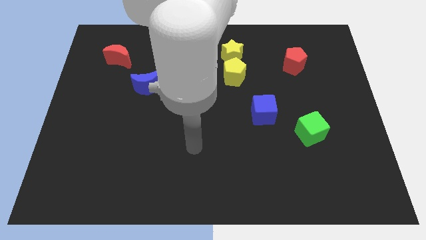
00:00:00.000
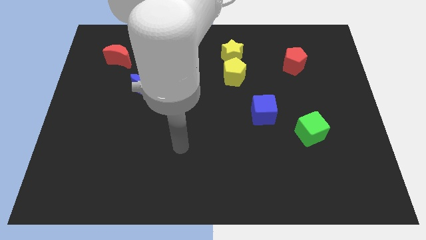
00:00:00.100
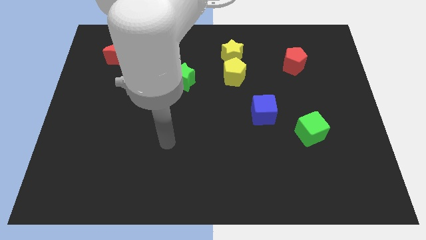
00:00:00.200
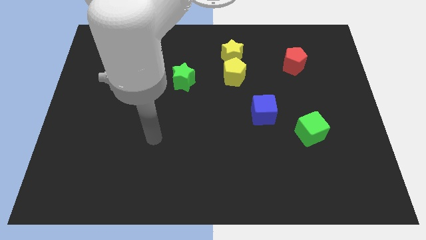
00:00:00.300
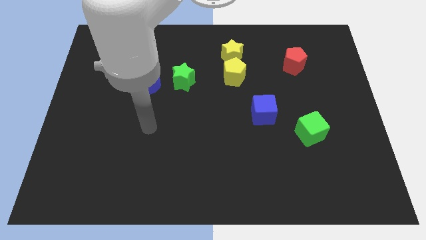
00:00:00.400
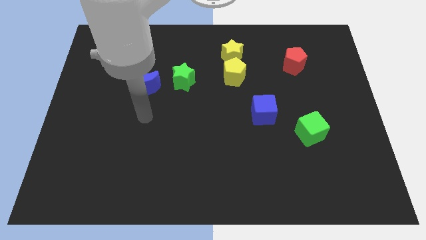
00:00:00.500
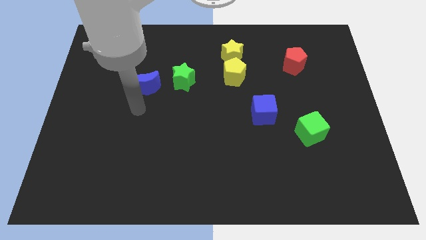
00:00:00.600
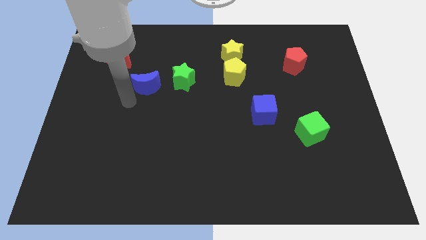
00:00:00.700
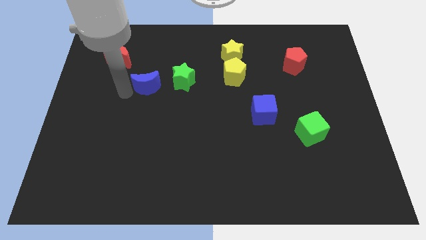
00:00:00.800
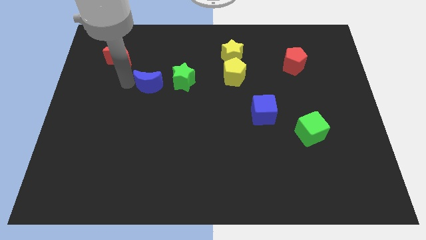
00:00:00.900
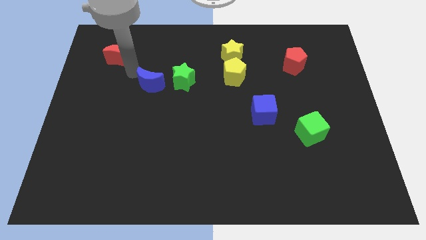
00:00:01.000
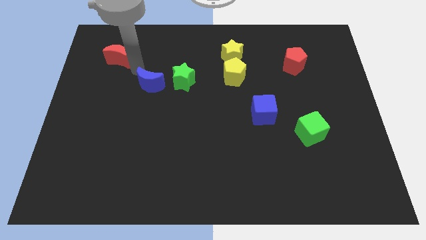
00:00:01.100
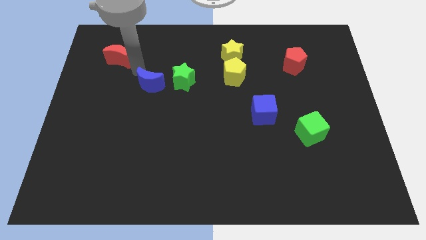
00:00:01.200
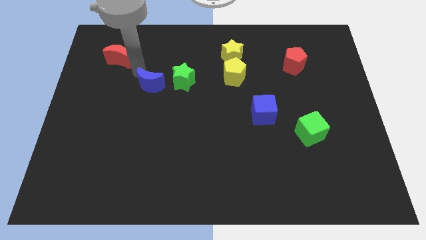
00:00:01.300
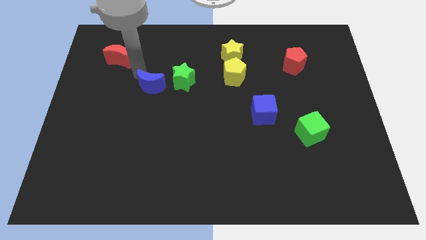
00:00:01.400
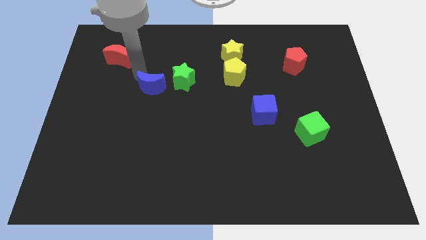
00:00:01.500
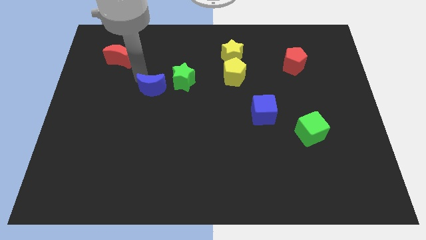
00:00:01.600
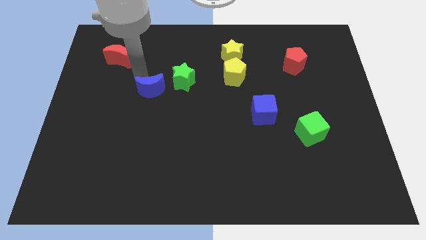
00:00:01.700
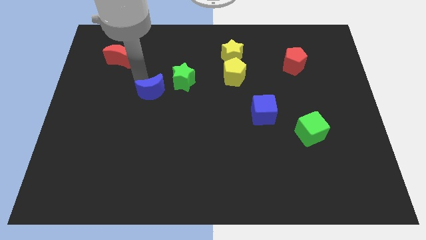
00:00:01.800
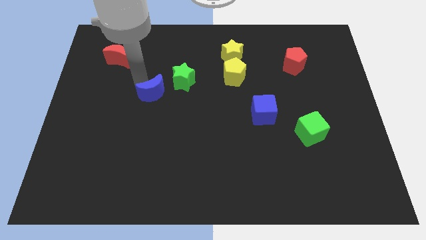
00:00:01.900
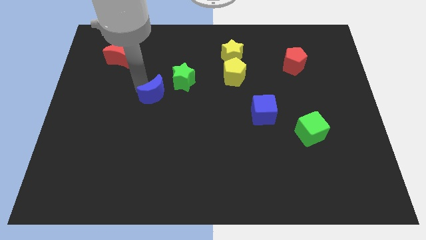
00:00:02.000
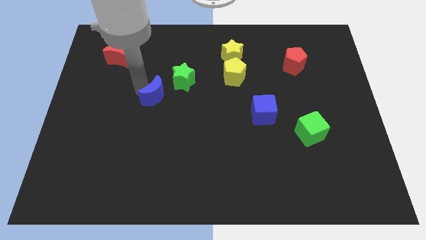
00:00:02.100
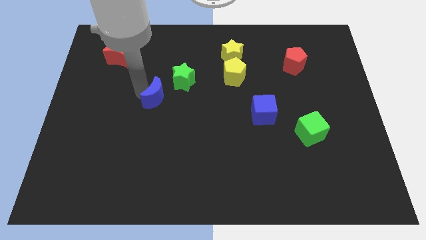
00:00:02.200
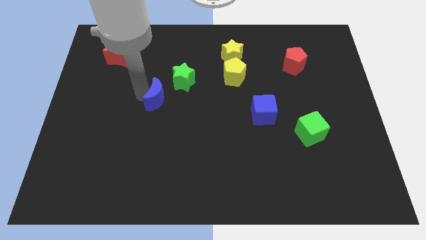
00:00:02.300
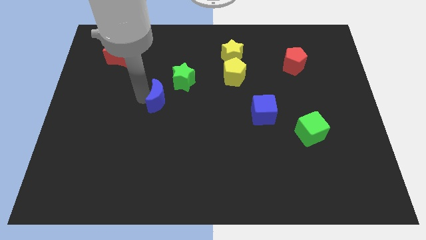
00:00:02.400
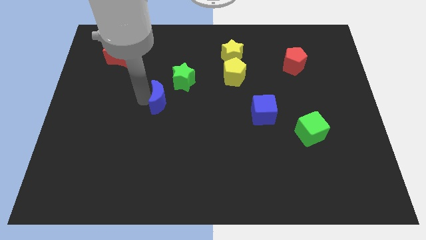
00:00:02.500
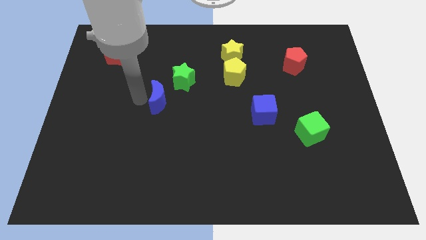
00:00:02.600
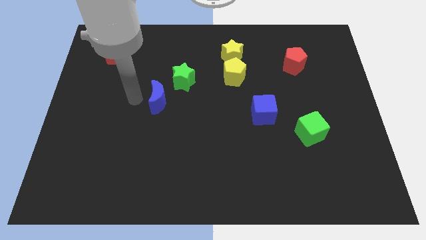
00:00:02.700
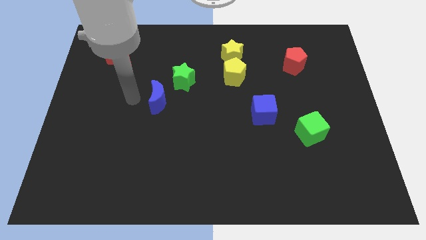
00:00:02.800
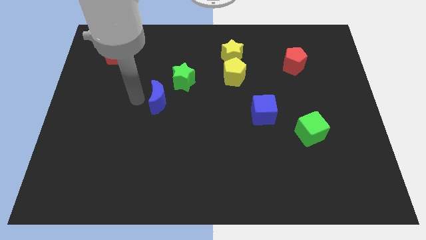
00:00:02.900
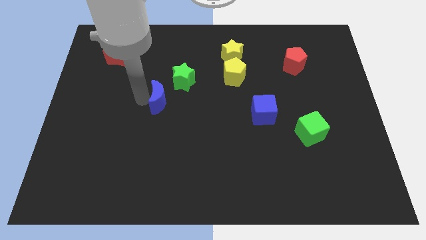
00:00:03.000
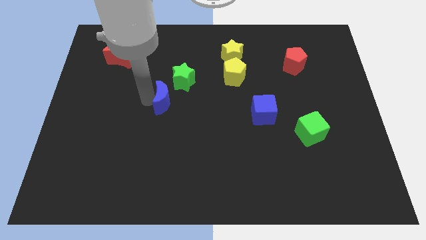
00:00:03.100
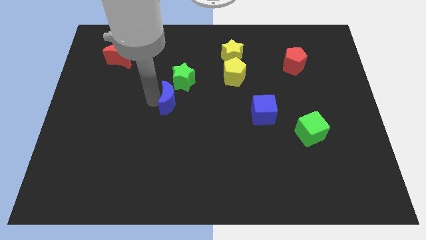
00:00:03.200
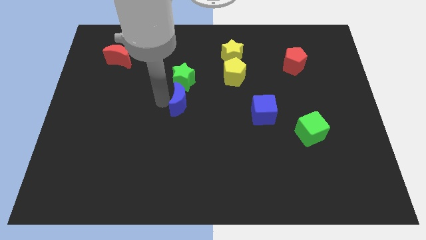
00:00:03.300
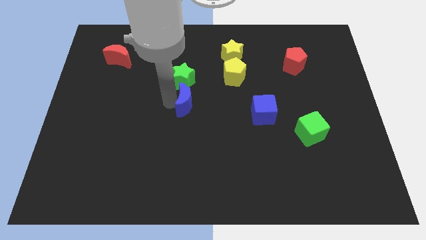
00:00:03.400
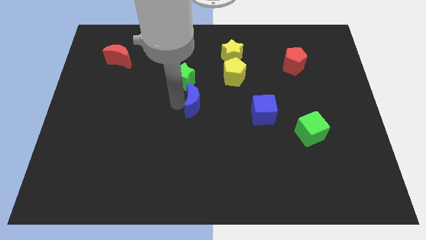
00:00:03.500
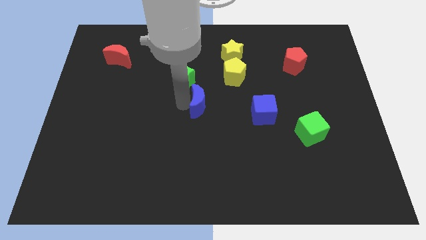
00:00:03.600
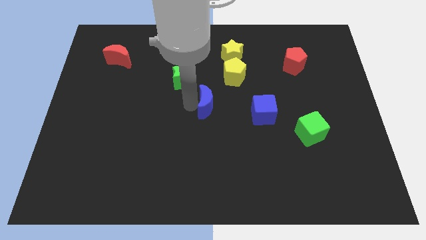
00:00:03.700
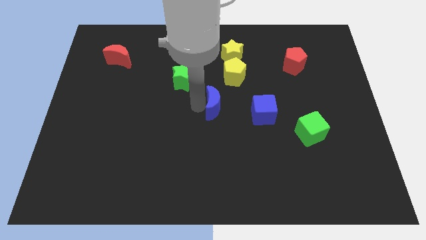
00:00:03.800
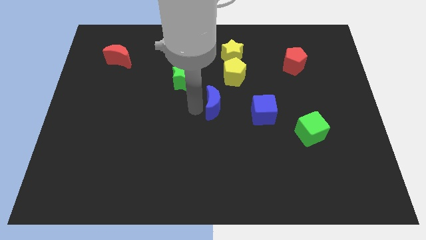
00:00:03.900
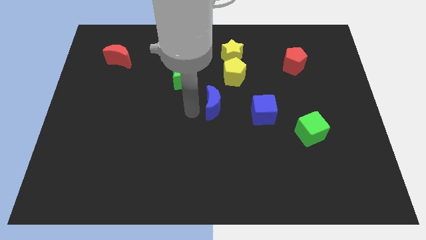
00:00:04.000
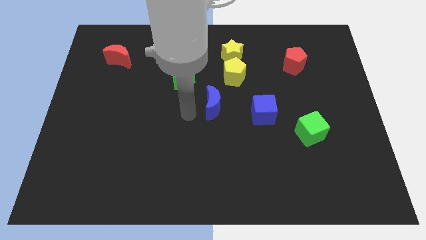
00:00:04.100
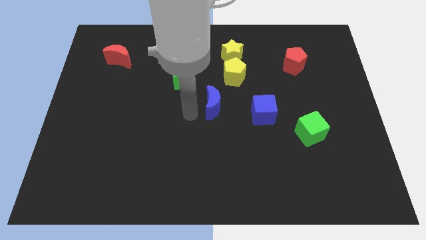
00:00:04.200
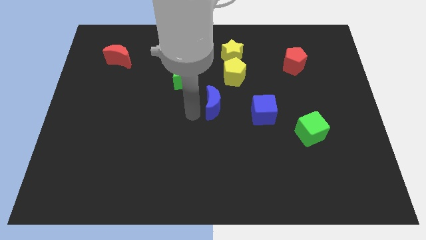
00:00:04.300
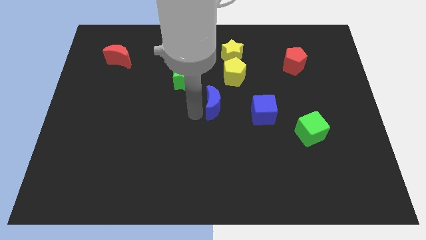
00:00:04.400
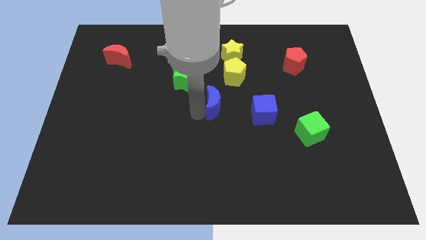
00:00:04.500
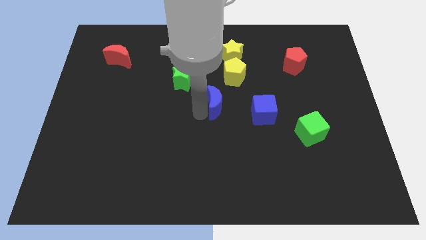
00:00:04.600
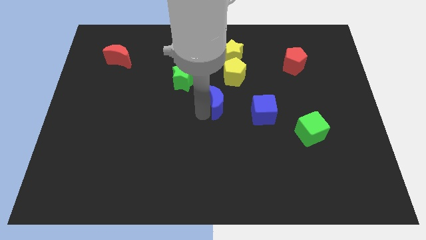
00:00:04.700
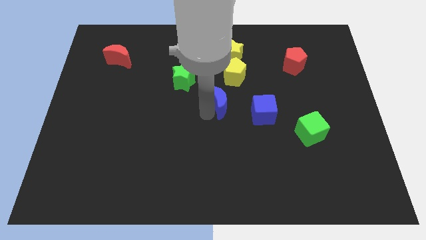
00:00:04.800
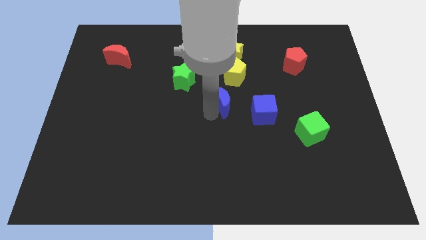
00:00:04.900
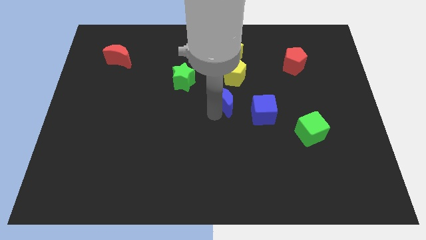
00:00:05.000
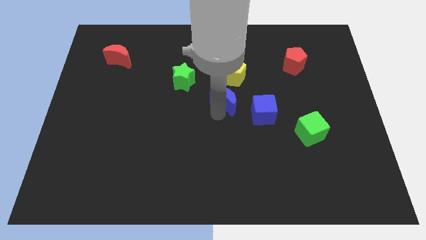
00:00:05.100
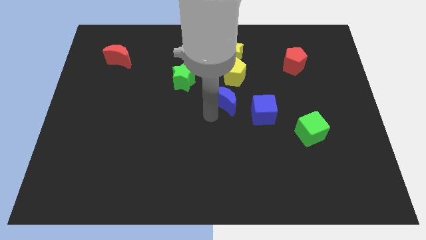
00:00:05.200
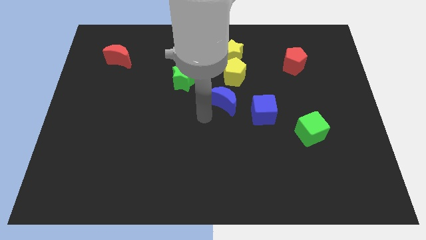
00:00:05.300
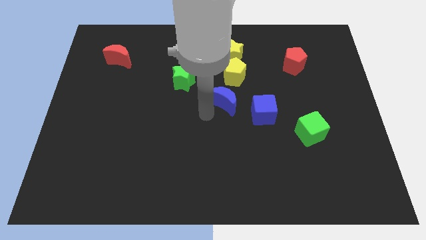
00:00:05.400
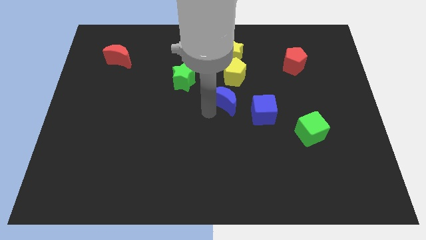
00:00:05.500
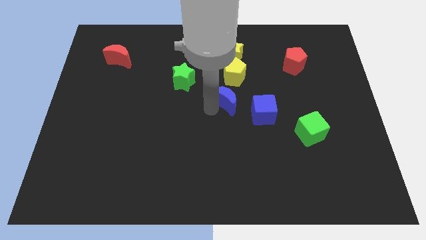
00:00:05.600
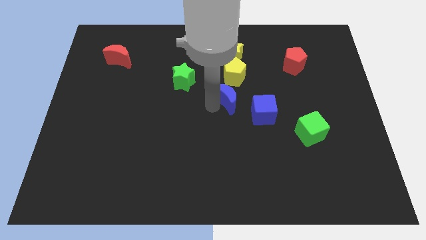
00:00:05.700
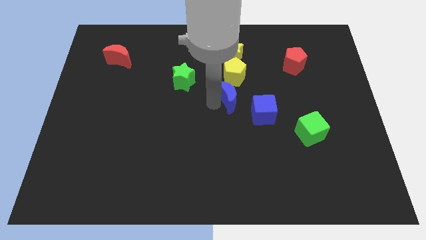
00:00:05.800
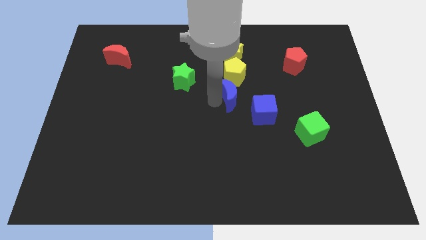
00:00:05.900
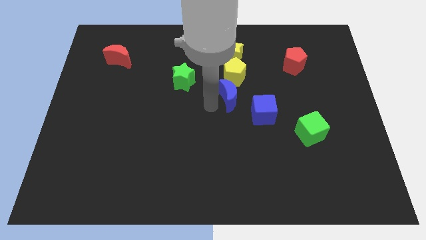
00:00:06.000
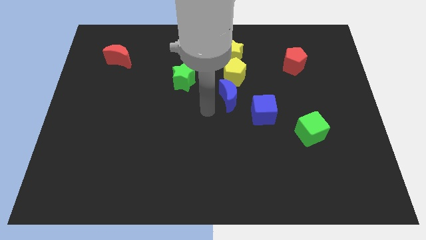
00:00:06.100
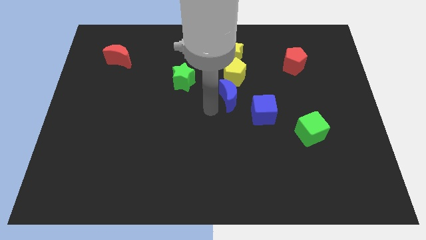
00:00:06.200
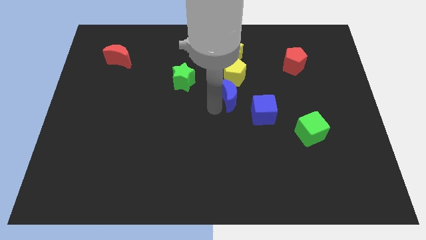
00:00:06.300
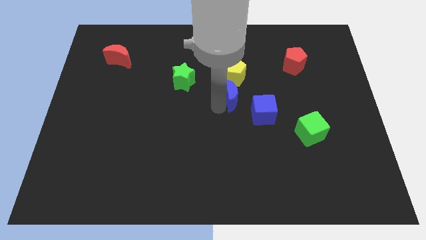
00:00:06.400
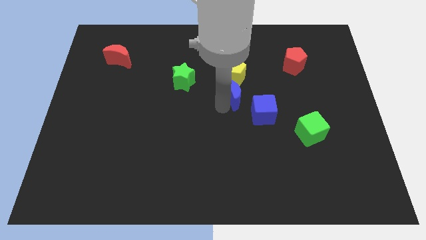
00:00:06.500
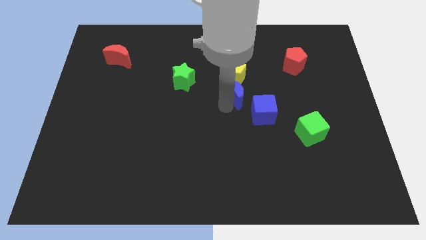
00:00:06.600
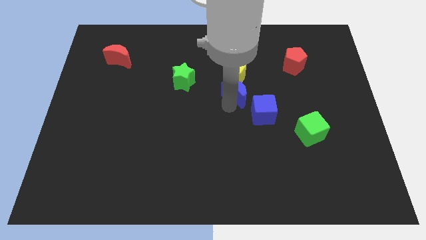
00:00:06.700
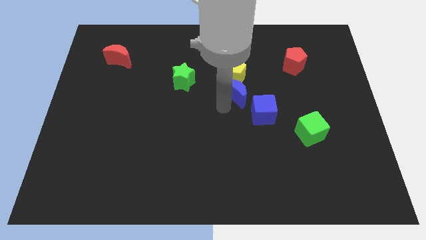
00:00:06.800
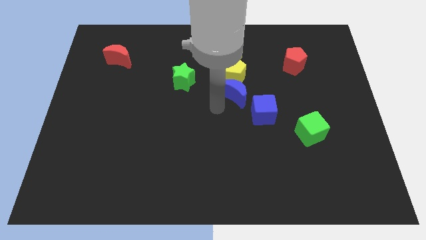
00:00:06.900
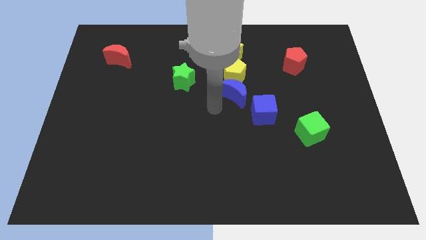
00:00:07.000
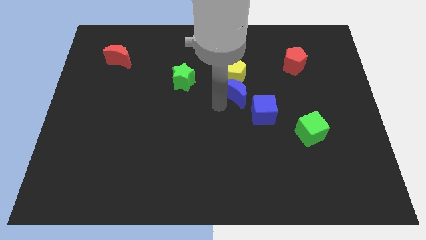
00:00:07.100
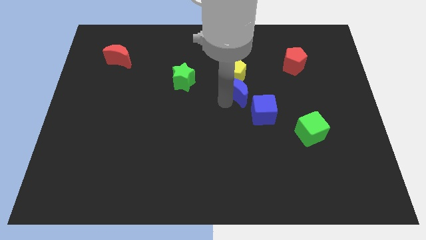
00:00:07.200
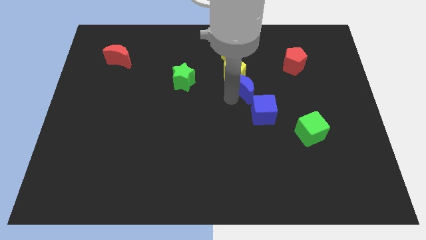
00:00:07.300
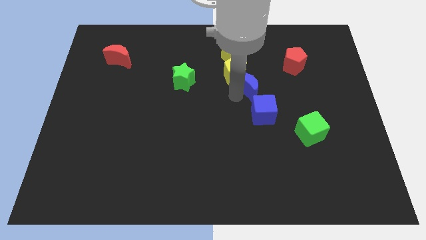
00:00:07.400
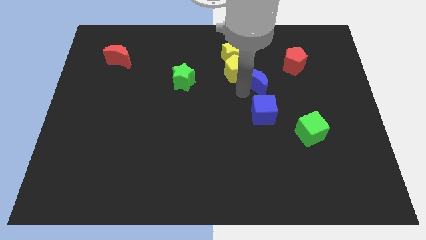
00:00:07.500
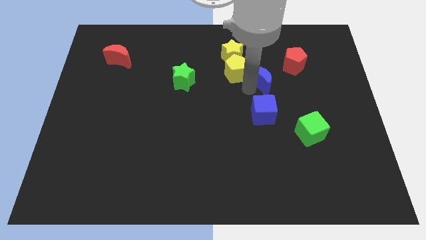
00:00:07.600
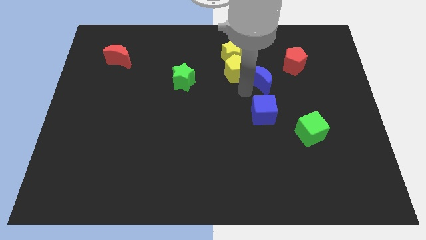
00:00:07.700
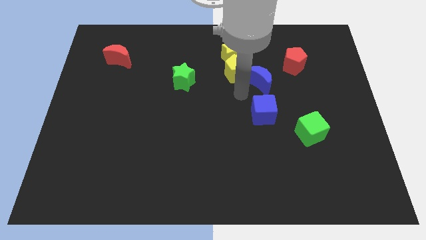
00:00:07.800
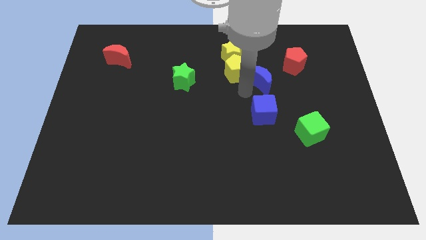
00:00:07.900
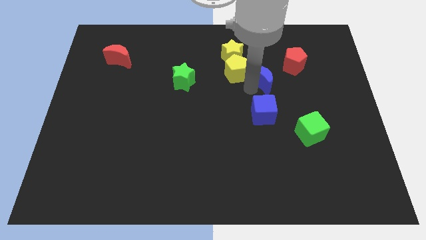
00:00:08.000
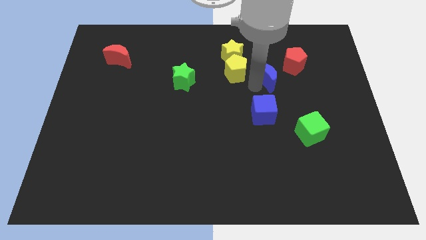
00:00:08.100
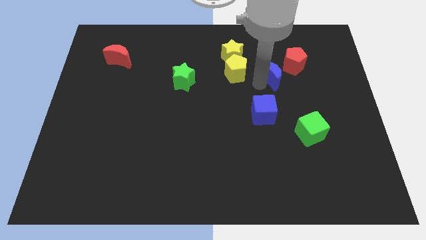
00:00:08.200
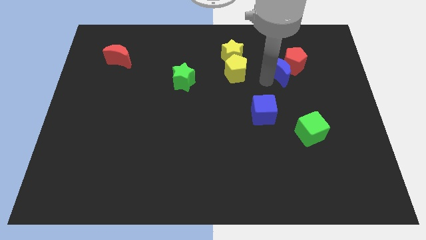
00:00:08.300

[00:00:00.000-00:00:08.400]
push the blue moon to the red pentagon
